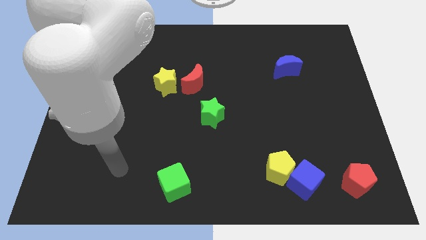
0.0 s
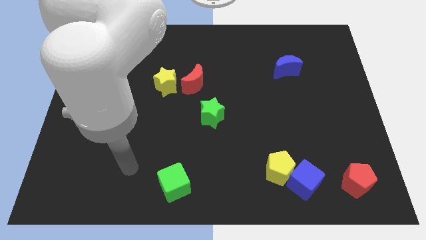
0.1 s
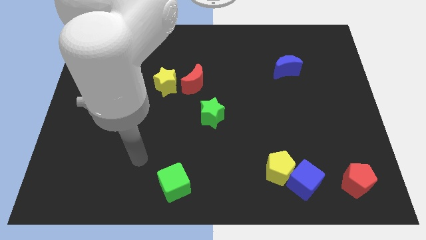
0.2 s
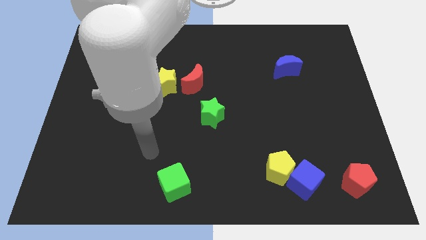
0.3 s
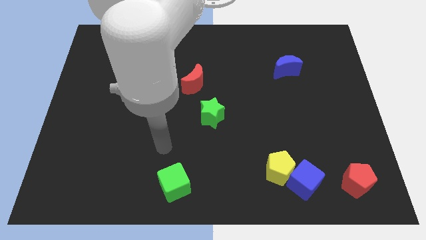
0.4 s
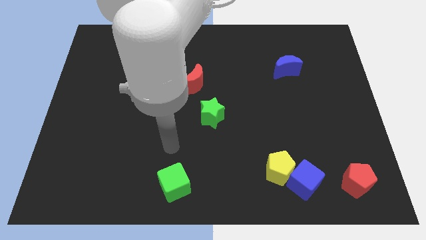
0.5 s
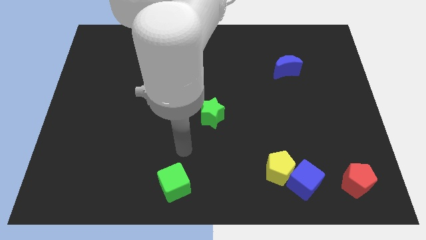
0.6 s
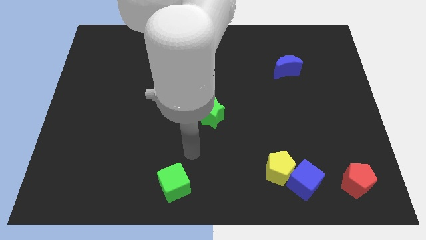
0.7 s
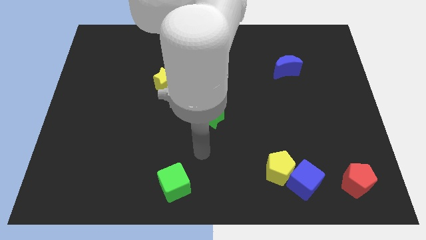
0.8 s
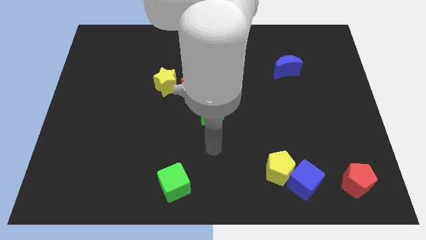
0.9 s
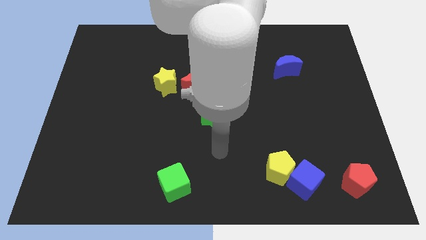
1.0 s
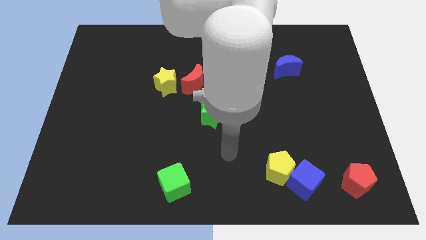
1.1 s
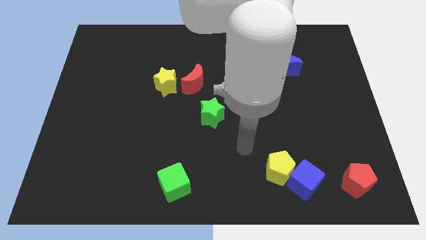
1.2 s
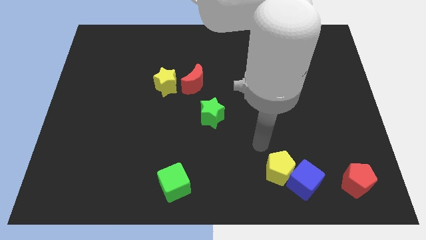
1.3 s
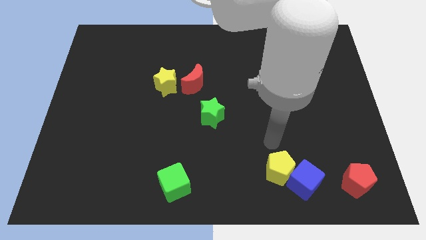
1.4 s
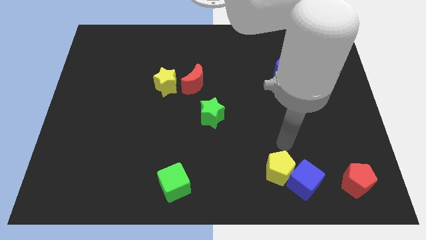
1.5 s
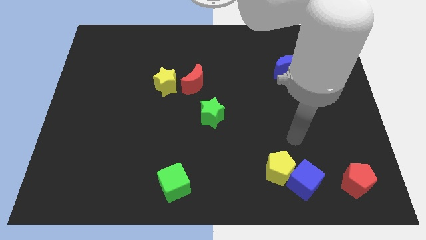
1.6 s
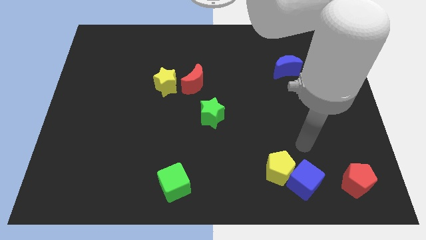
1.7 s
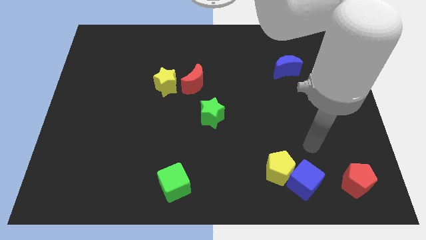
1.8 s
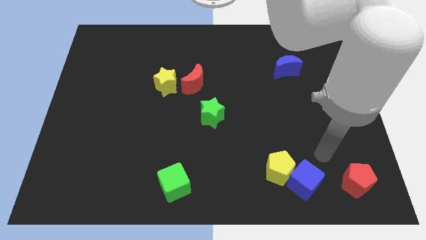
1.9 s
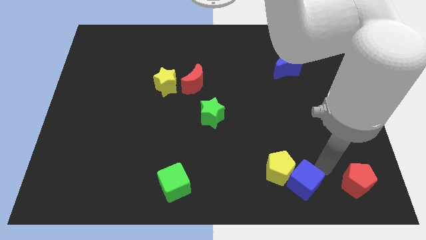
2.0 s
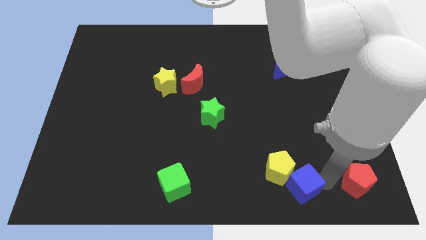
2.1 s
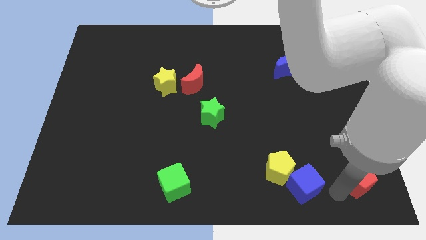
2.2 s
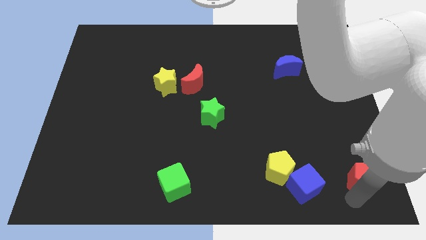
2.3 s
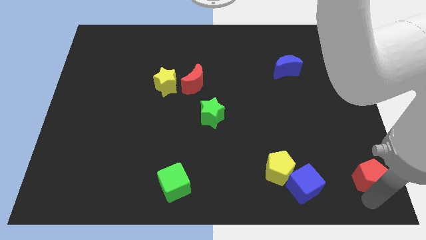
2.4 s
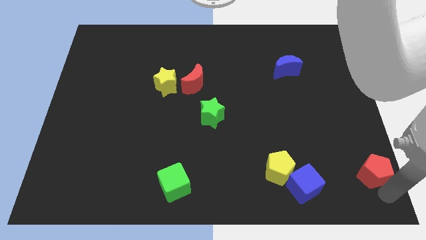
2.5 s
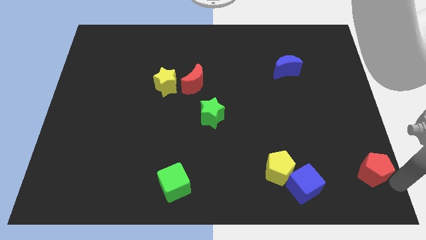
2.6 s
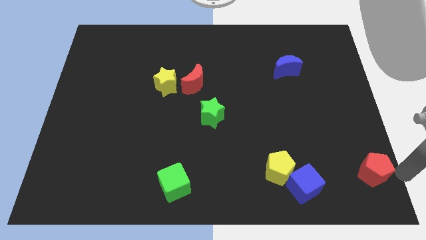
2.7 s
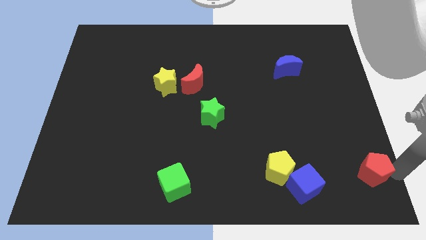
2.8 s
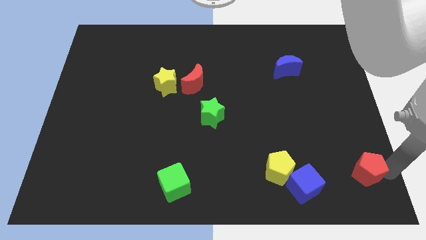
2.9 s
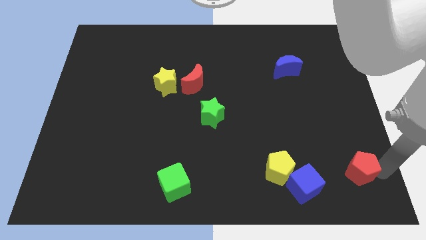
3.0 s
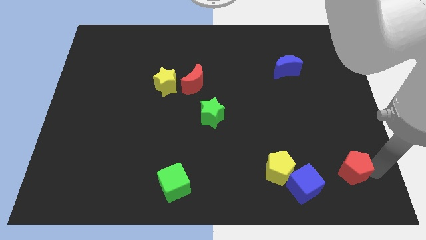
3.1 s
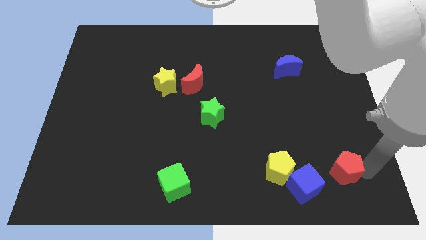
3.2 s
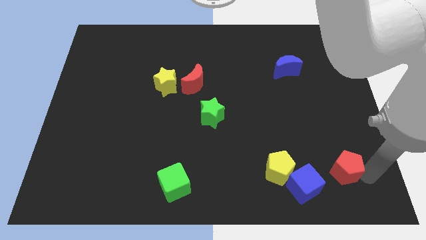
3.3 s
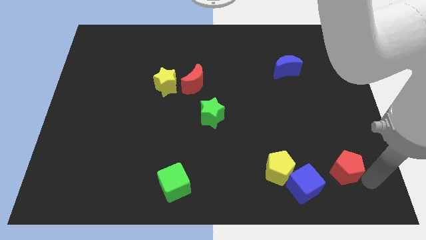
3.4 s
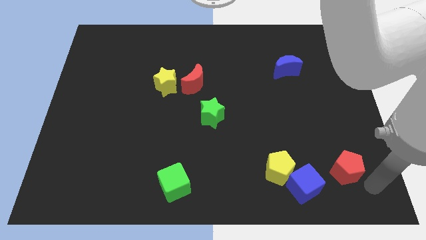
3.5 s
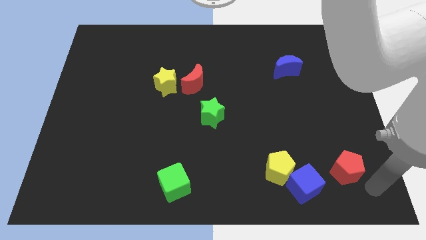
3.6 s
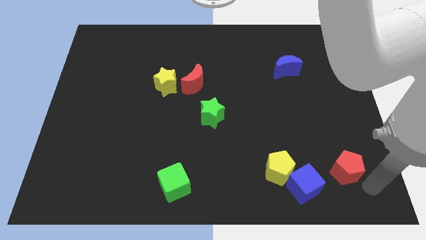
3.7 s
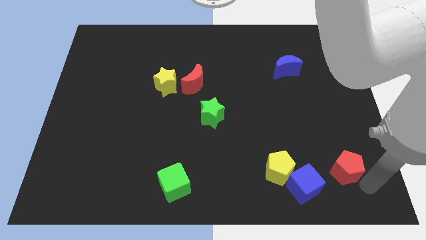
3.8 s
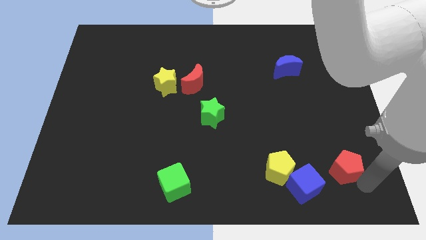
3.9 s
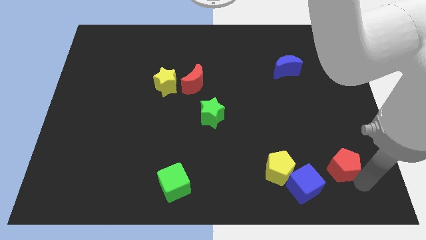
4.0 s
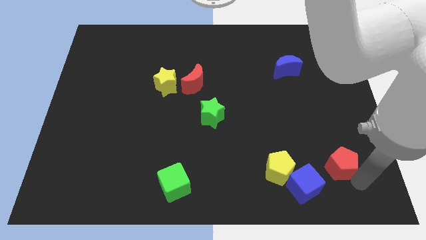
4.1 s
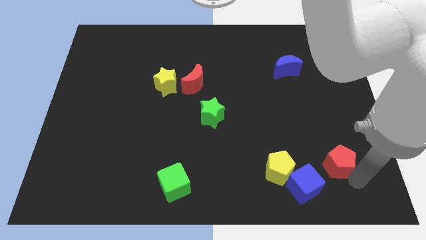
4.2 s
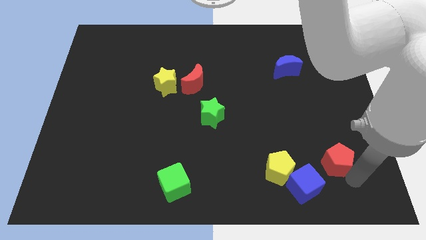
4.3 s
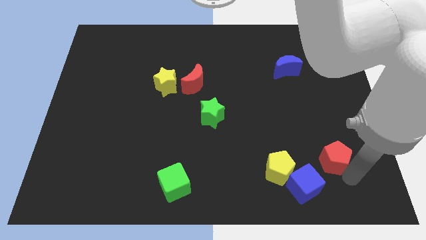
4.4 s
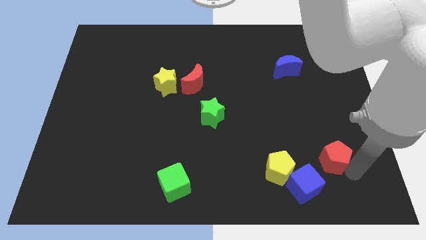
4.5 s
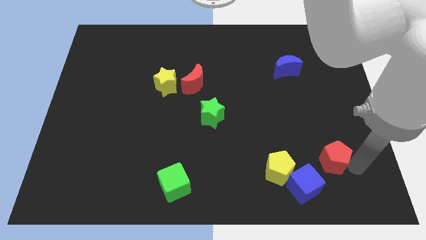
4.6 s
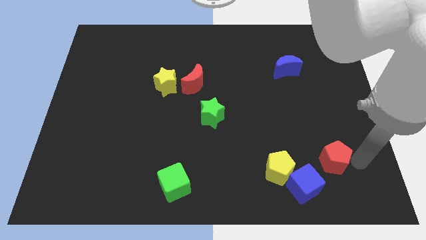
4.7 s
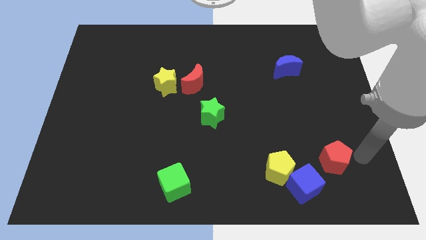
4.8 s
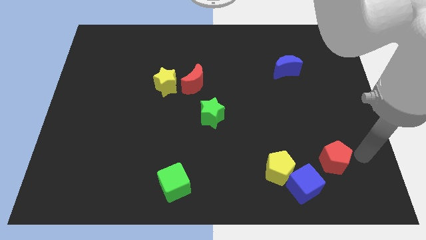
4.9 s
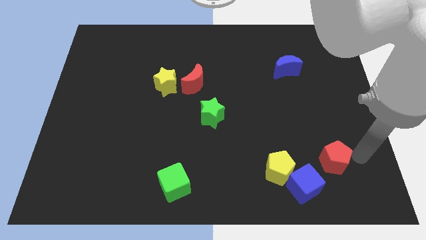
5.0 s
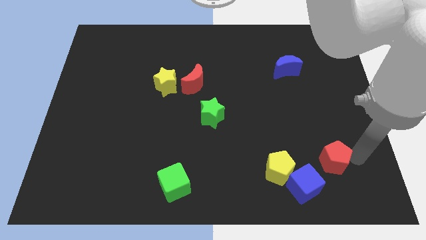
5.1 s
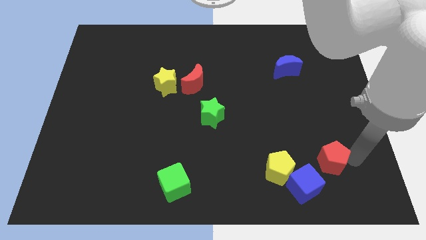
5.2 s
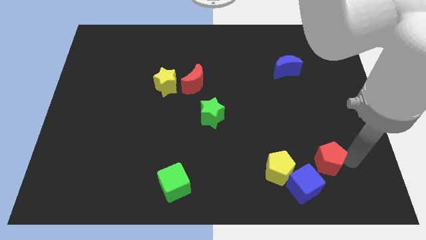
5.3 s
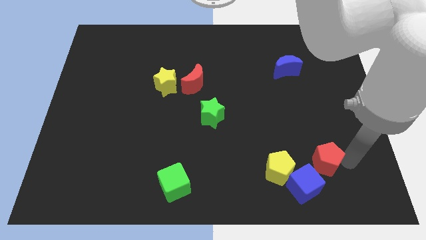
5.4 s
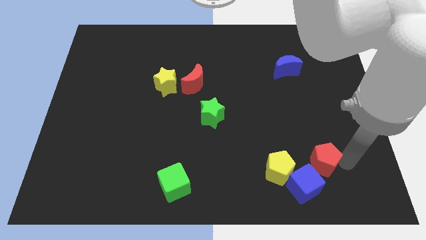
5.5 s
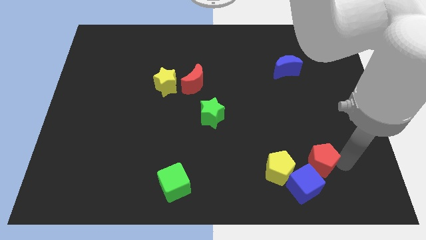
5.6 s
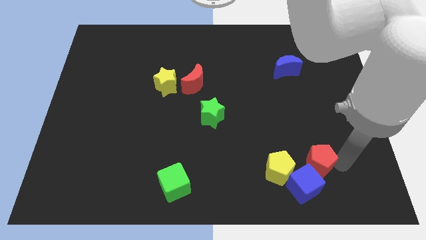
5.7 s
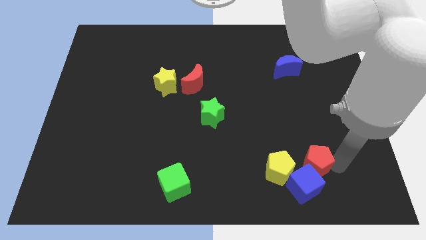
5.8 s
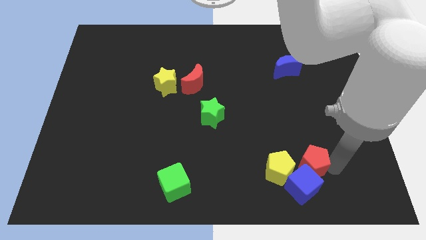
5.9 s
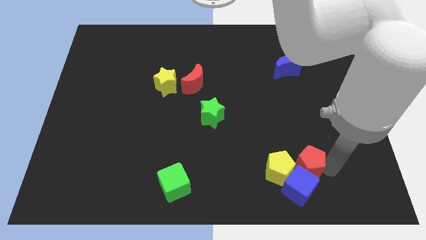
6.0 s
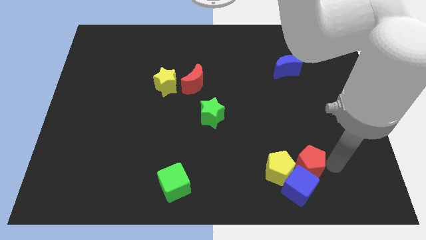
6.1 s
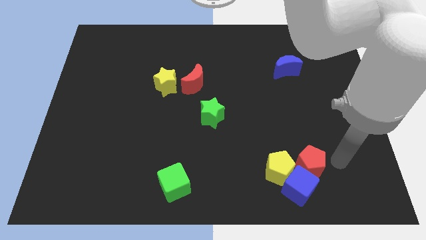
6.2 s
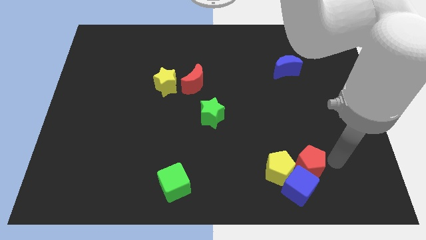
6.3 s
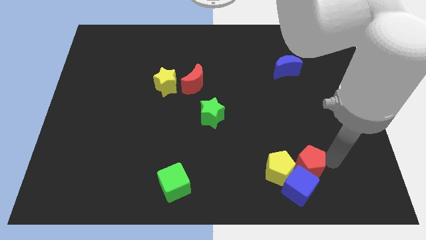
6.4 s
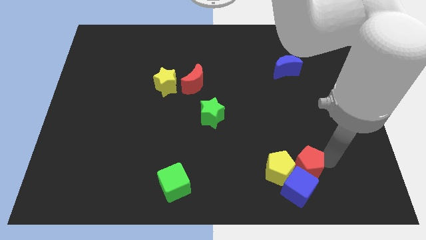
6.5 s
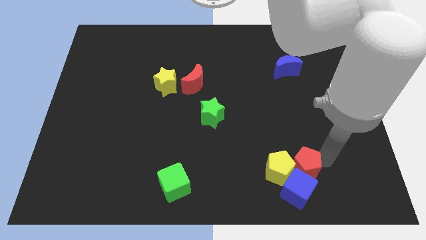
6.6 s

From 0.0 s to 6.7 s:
move the red pentagon towards the yellow pentagon
